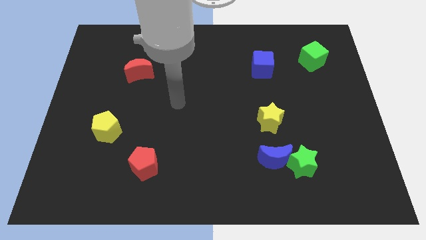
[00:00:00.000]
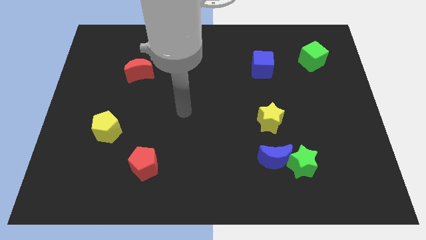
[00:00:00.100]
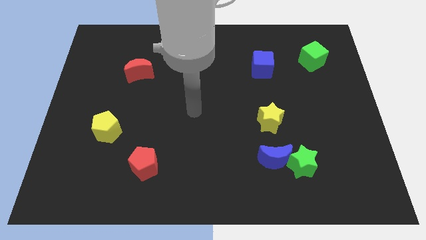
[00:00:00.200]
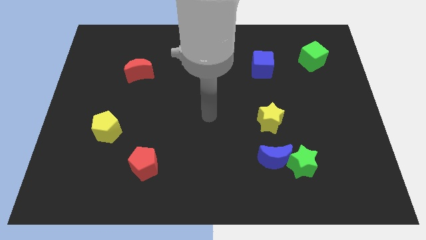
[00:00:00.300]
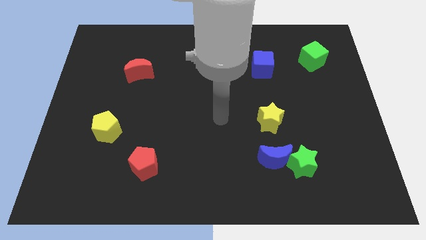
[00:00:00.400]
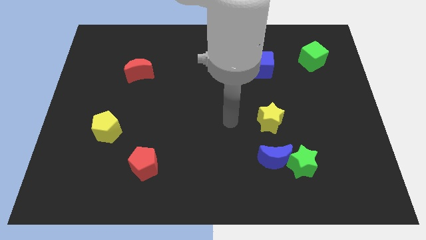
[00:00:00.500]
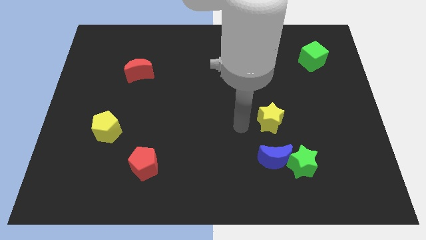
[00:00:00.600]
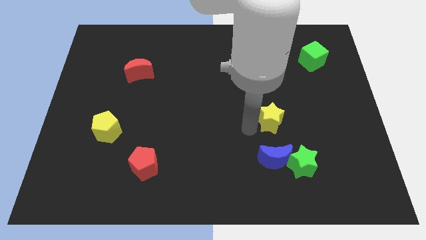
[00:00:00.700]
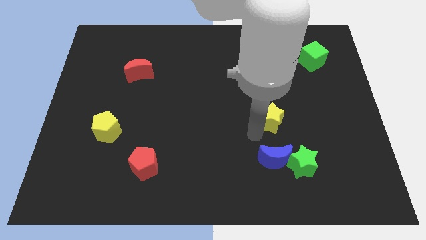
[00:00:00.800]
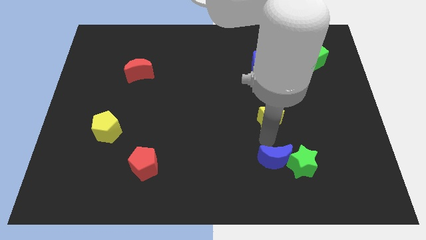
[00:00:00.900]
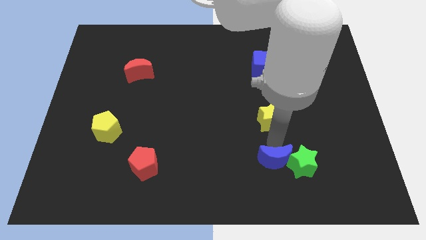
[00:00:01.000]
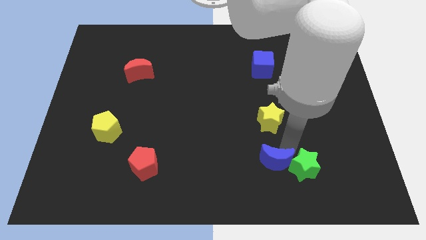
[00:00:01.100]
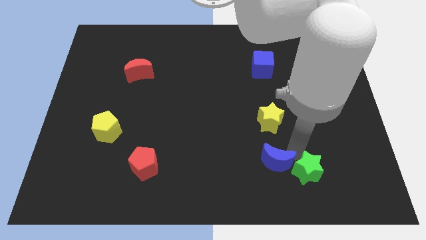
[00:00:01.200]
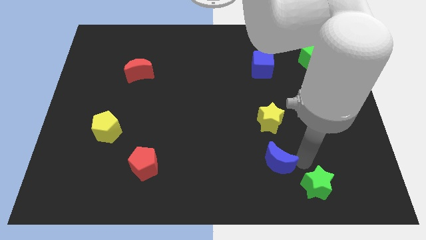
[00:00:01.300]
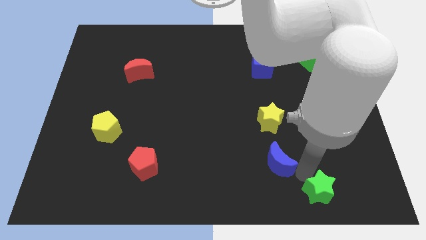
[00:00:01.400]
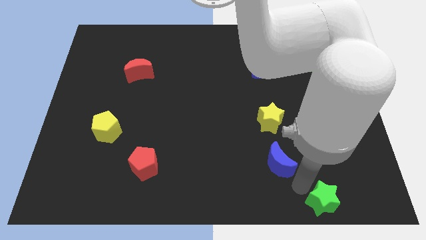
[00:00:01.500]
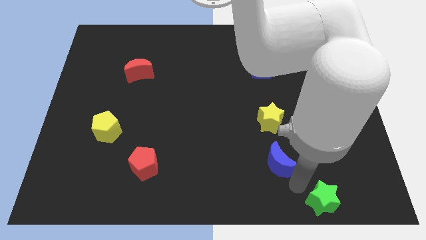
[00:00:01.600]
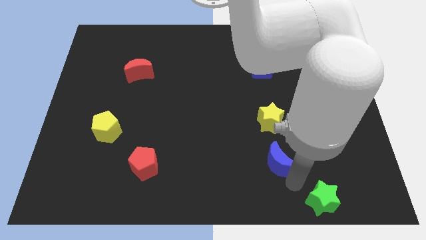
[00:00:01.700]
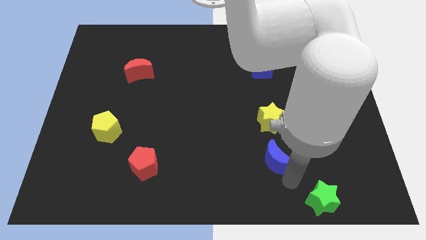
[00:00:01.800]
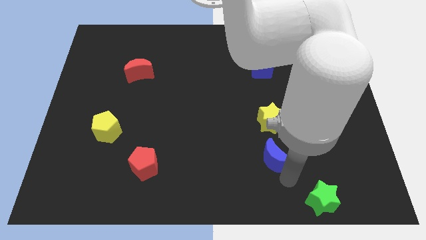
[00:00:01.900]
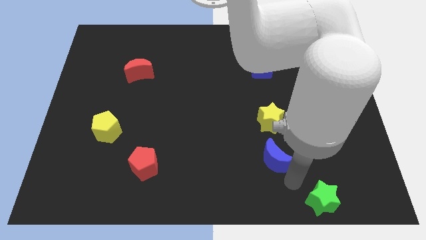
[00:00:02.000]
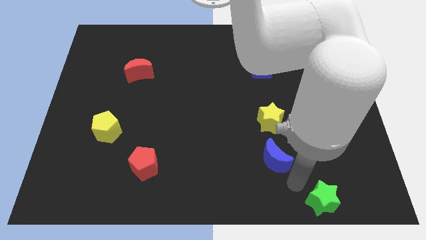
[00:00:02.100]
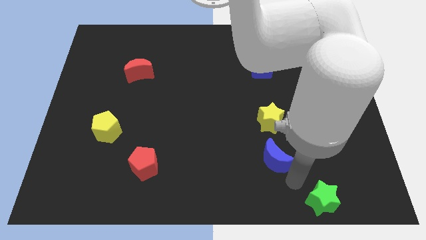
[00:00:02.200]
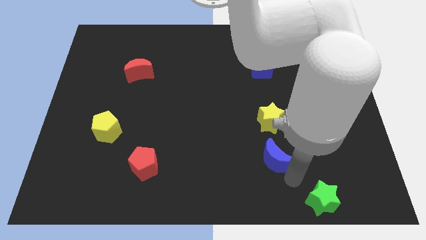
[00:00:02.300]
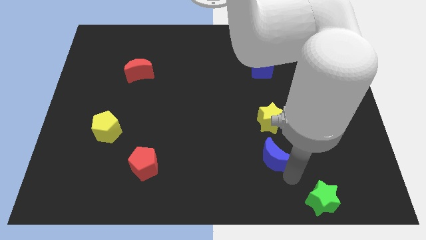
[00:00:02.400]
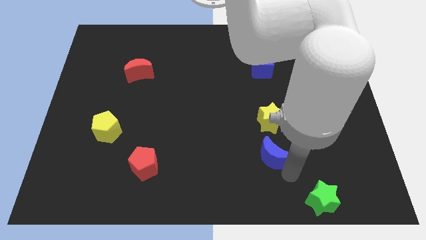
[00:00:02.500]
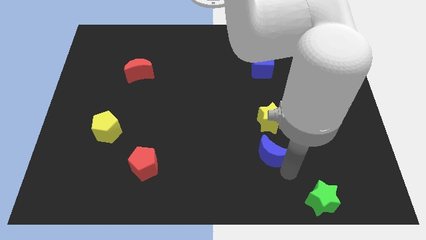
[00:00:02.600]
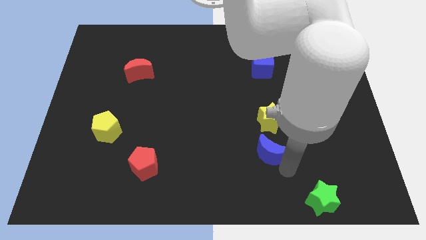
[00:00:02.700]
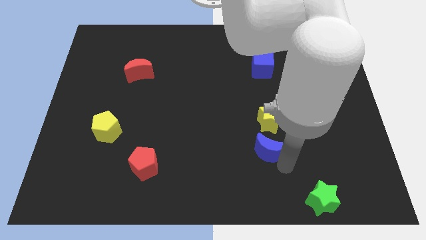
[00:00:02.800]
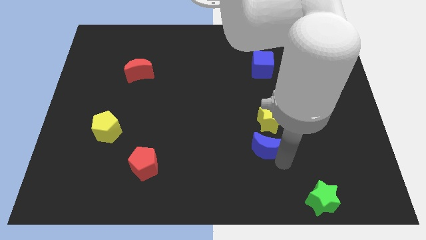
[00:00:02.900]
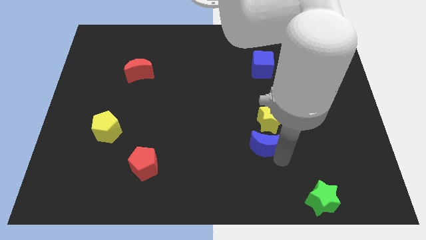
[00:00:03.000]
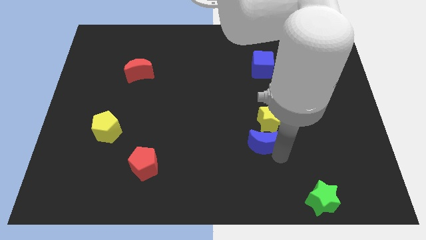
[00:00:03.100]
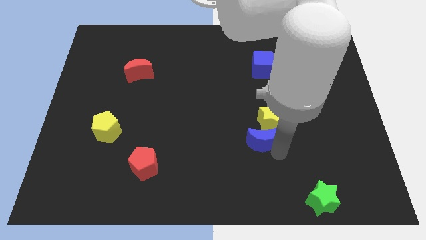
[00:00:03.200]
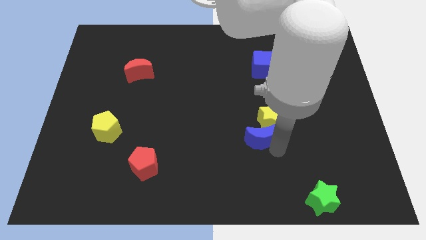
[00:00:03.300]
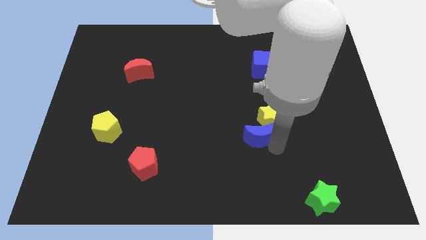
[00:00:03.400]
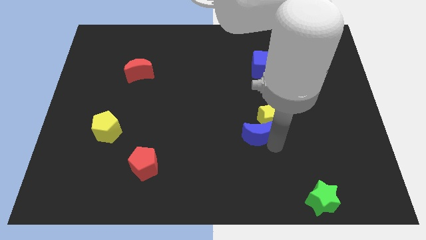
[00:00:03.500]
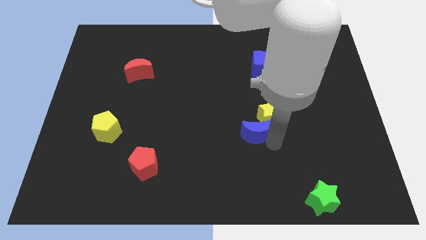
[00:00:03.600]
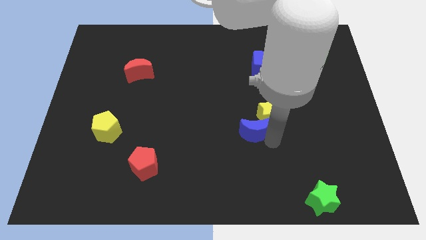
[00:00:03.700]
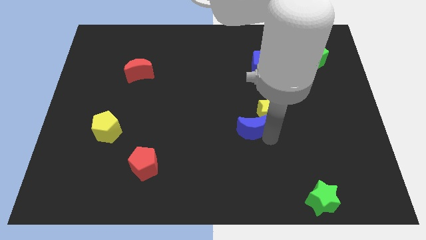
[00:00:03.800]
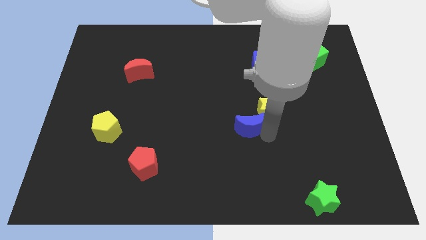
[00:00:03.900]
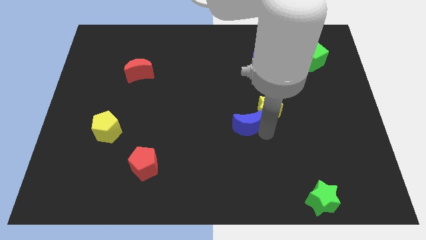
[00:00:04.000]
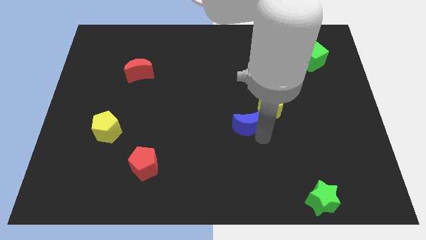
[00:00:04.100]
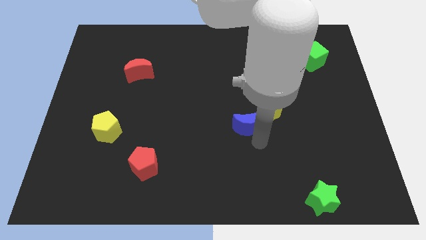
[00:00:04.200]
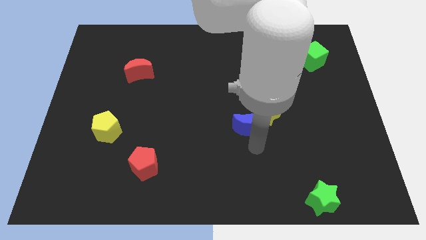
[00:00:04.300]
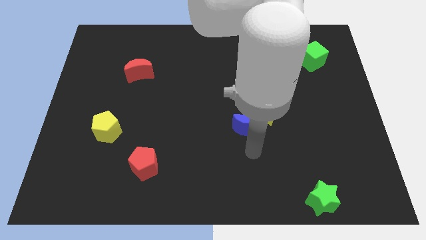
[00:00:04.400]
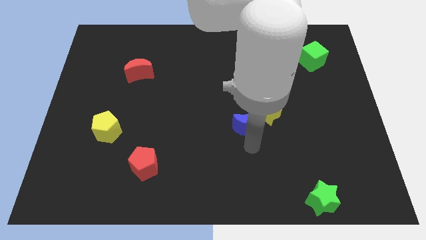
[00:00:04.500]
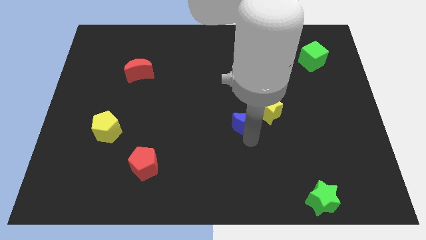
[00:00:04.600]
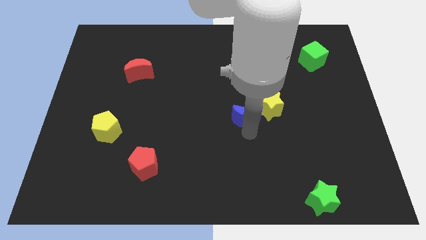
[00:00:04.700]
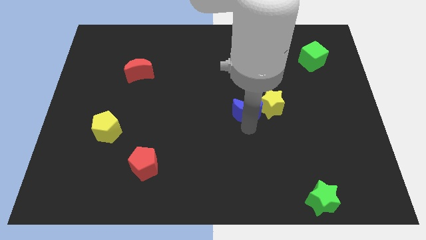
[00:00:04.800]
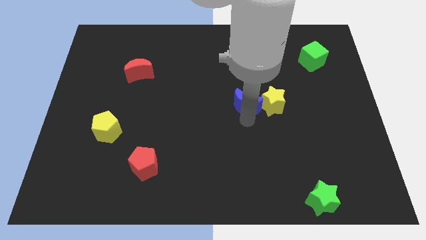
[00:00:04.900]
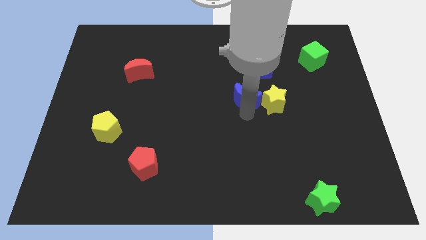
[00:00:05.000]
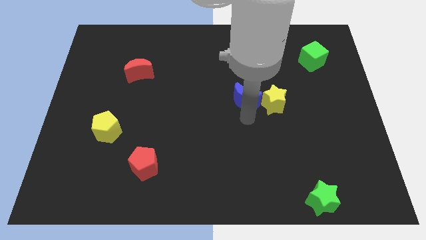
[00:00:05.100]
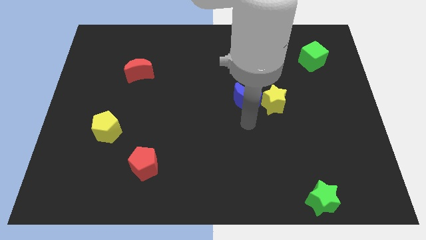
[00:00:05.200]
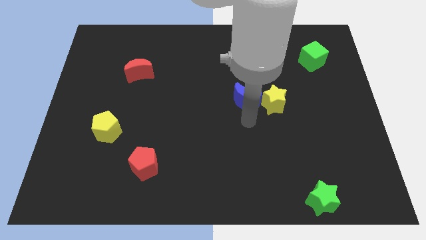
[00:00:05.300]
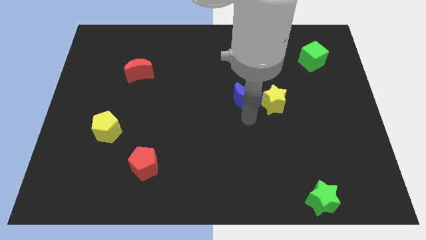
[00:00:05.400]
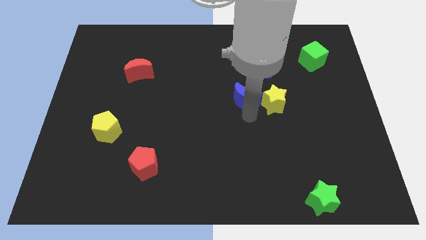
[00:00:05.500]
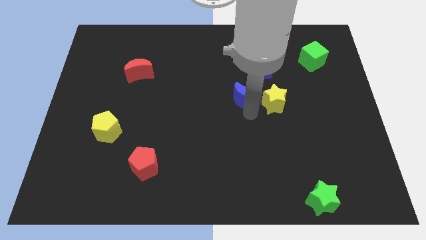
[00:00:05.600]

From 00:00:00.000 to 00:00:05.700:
move the blue moon to the bottom left of the blue cube

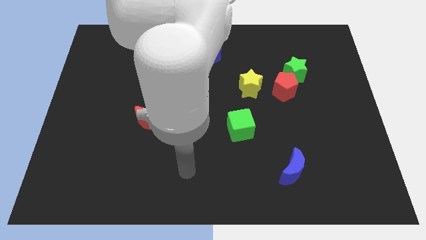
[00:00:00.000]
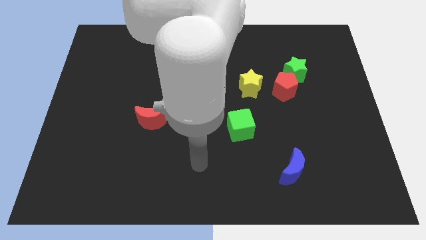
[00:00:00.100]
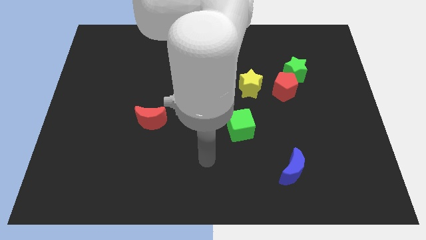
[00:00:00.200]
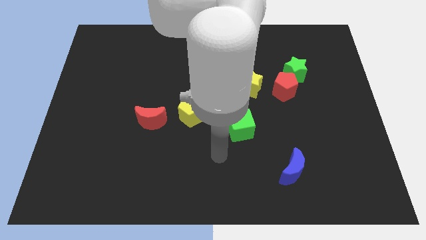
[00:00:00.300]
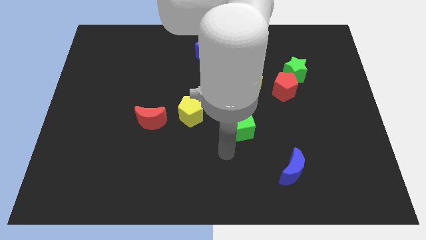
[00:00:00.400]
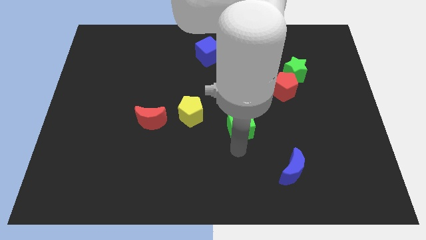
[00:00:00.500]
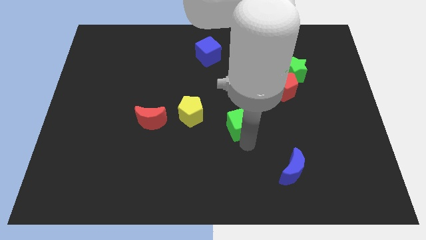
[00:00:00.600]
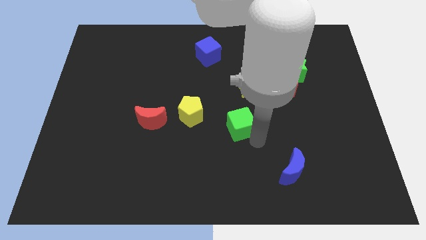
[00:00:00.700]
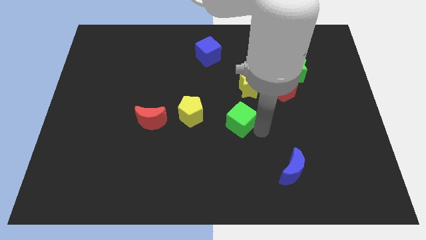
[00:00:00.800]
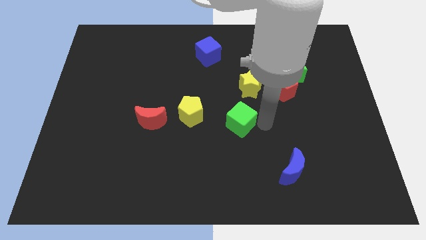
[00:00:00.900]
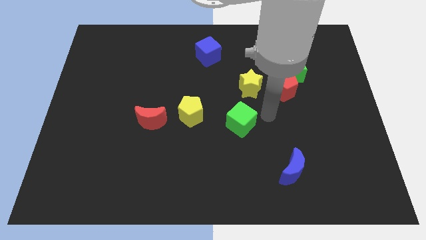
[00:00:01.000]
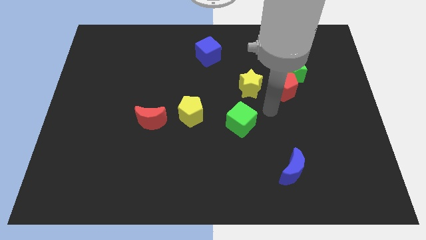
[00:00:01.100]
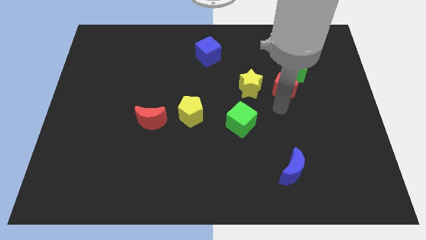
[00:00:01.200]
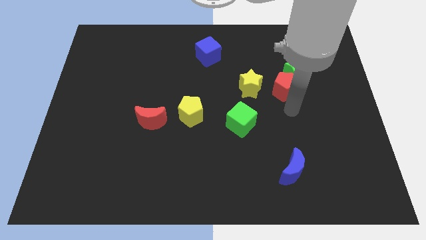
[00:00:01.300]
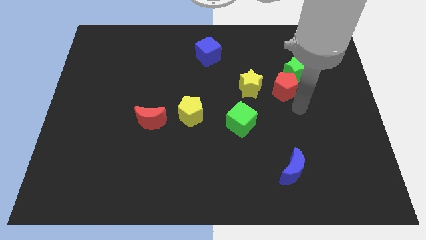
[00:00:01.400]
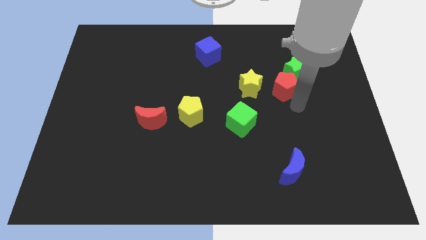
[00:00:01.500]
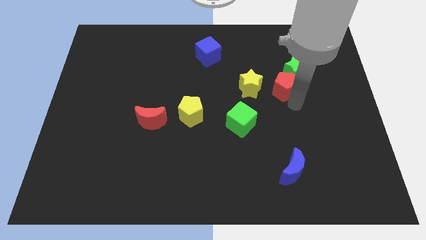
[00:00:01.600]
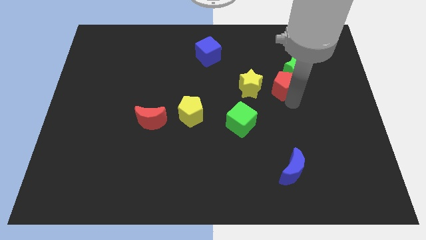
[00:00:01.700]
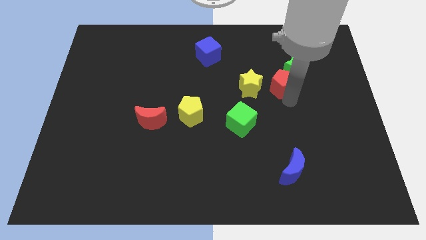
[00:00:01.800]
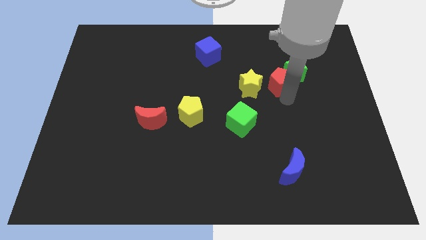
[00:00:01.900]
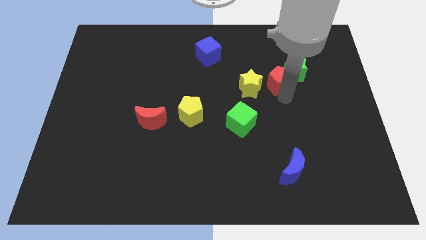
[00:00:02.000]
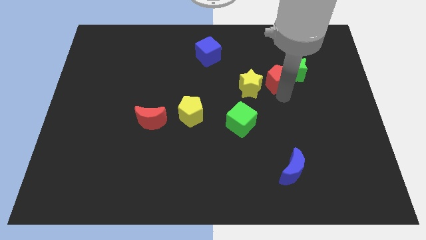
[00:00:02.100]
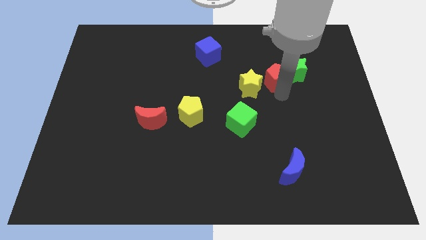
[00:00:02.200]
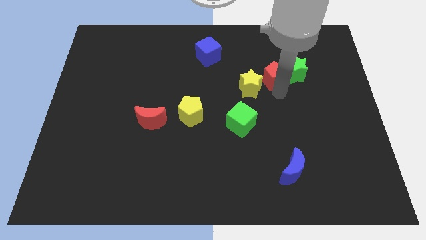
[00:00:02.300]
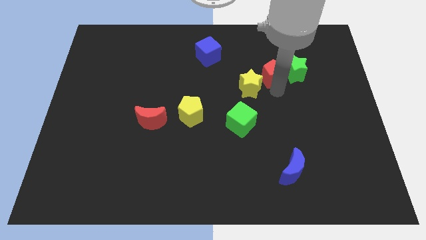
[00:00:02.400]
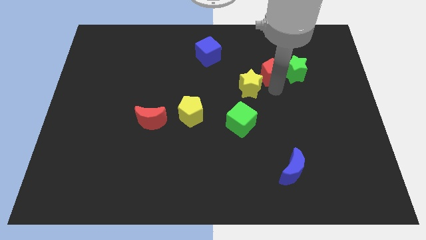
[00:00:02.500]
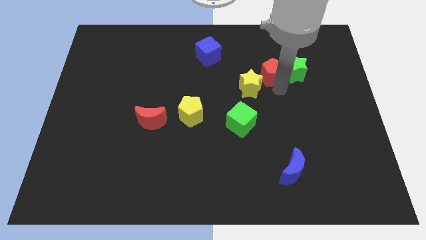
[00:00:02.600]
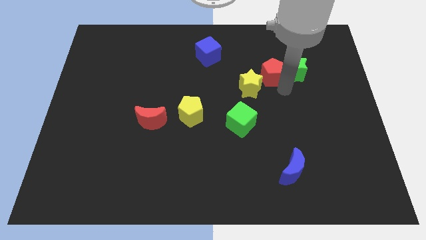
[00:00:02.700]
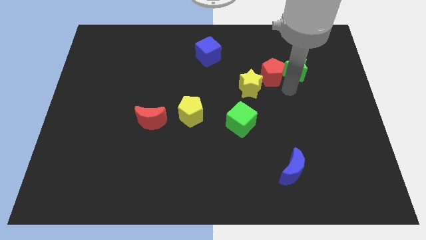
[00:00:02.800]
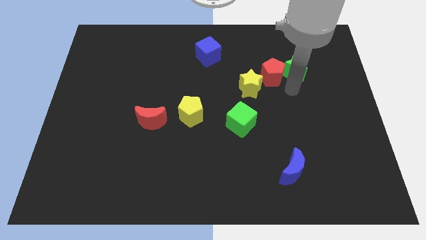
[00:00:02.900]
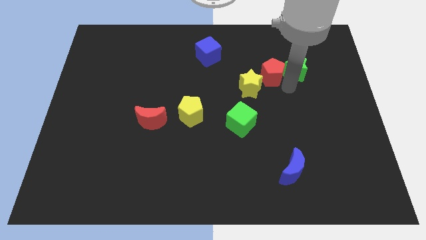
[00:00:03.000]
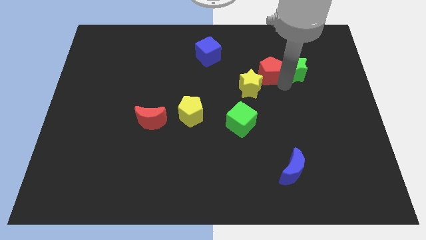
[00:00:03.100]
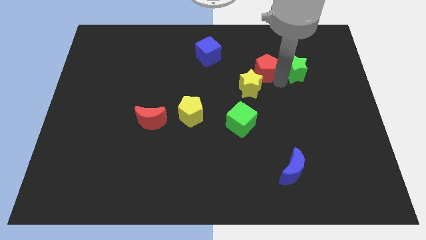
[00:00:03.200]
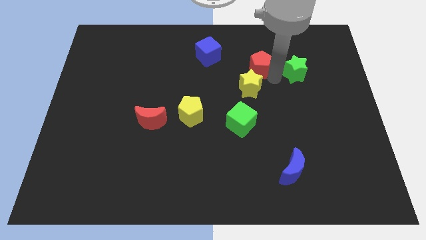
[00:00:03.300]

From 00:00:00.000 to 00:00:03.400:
slide the red pentagon to the right of the blue cube
